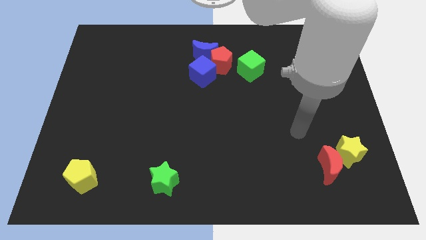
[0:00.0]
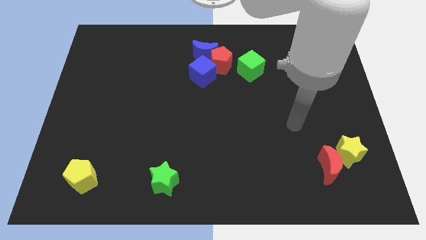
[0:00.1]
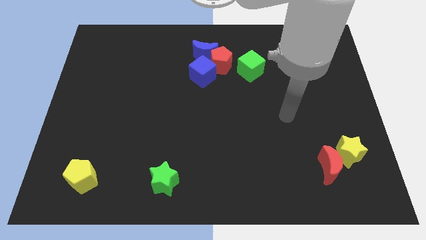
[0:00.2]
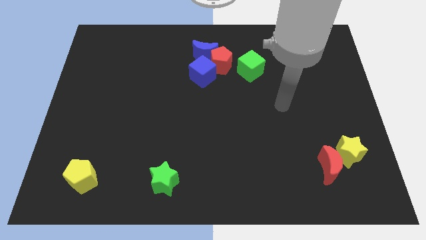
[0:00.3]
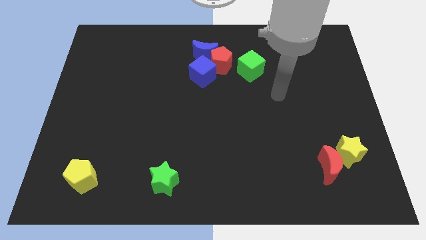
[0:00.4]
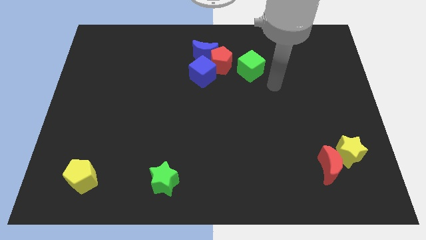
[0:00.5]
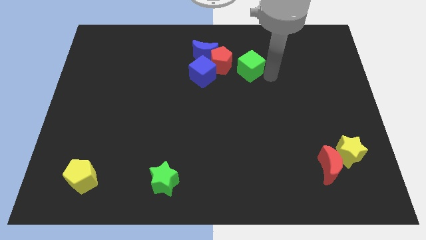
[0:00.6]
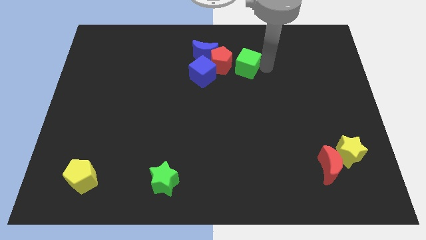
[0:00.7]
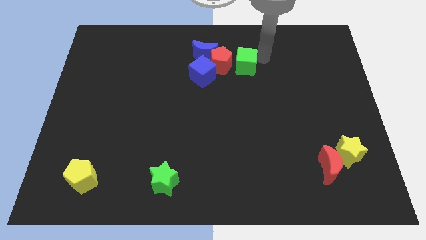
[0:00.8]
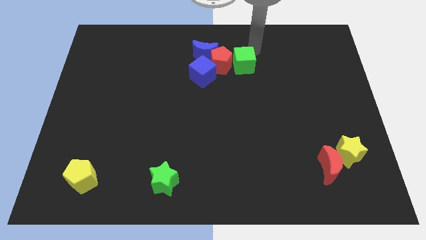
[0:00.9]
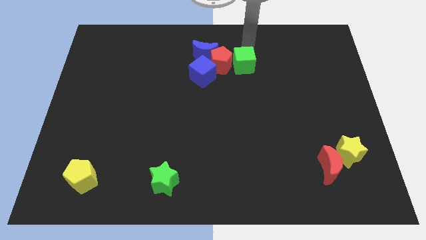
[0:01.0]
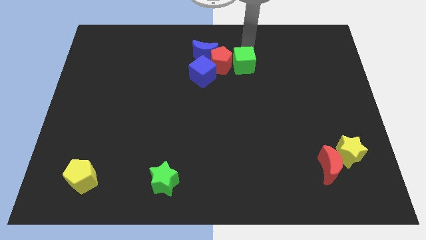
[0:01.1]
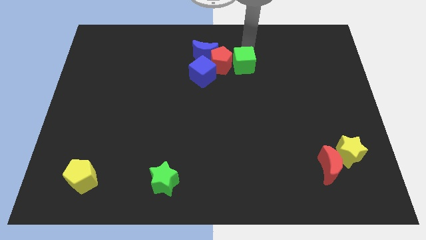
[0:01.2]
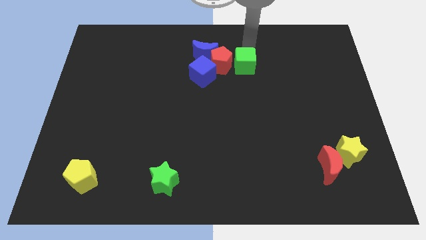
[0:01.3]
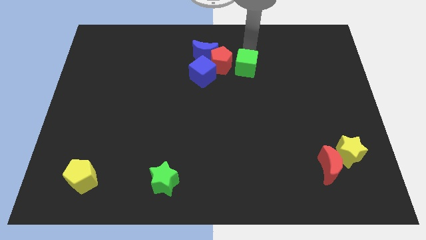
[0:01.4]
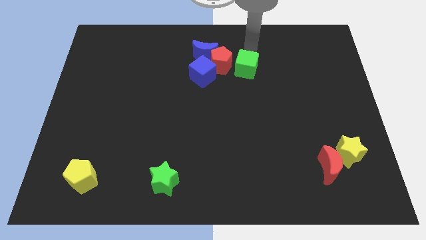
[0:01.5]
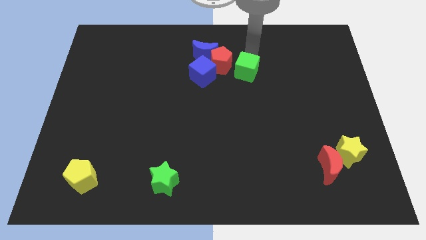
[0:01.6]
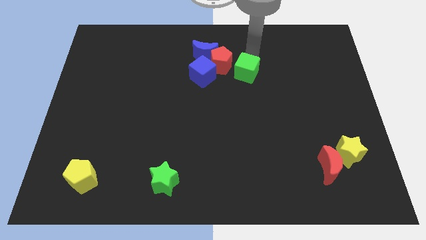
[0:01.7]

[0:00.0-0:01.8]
move the green cube to the middle of the board

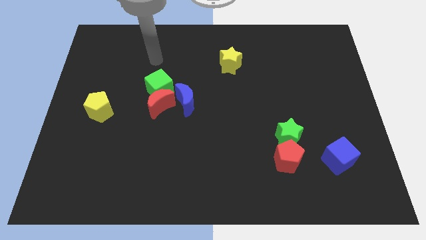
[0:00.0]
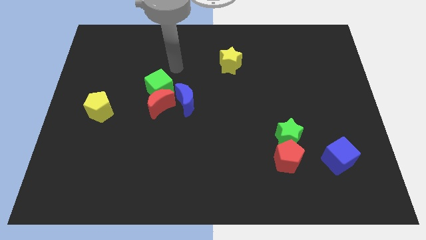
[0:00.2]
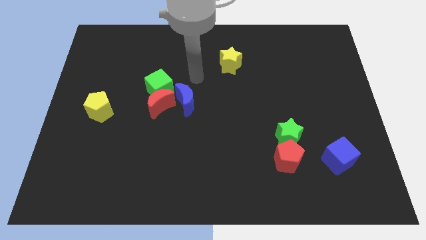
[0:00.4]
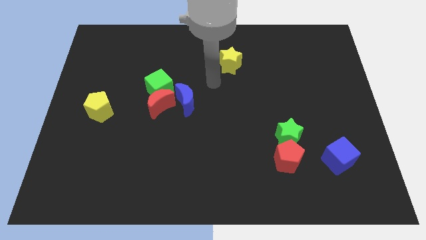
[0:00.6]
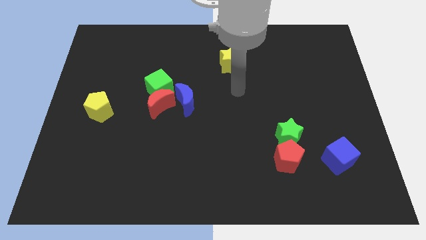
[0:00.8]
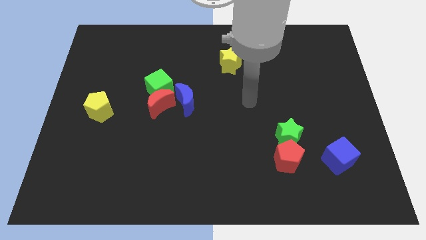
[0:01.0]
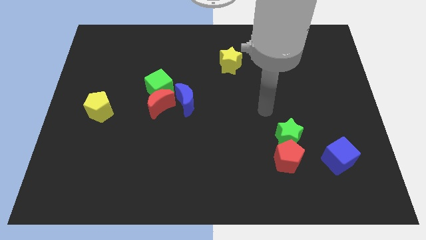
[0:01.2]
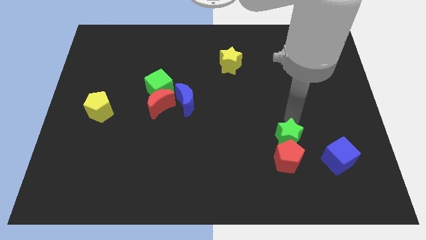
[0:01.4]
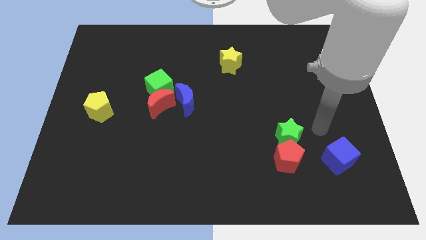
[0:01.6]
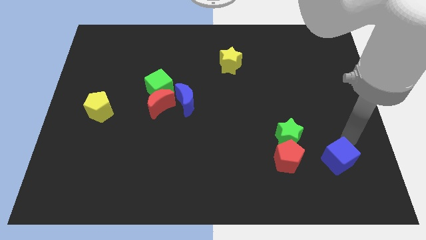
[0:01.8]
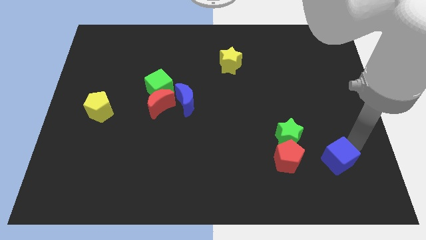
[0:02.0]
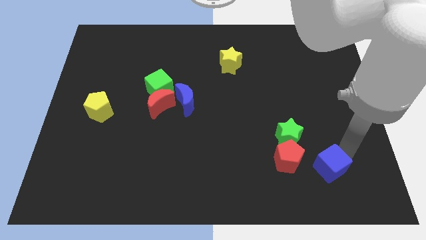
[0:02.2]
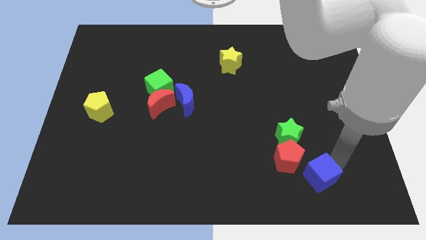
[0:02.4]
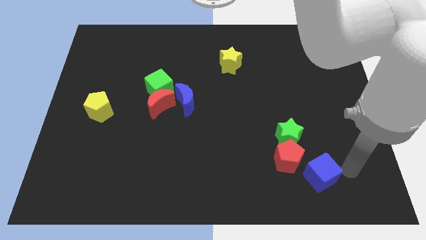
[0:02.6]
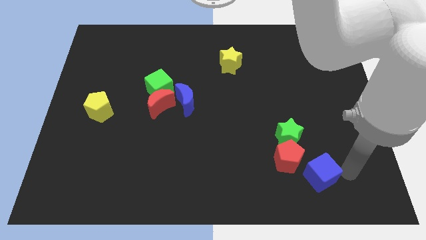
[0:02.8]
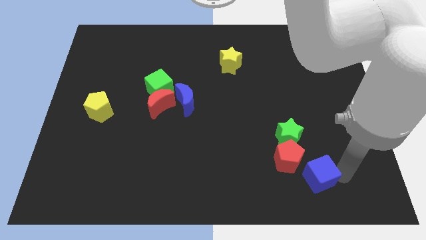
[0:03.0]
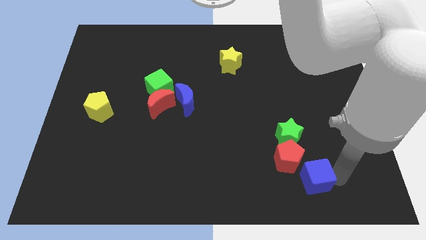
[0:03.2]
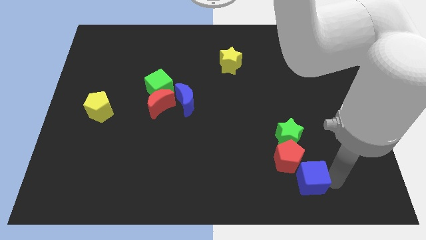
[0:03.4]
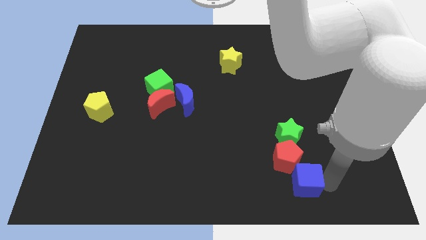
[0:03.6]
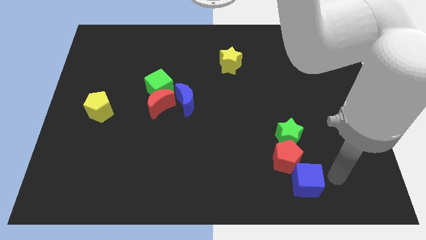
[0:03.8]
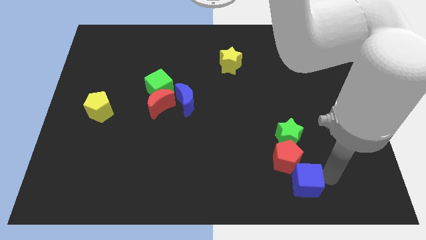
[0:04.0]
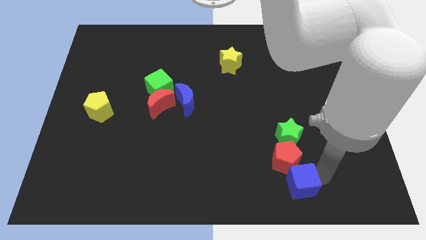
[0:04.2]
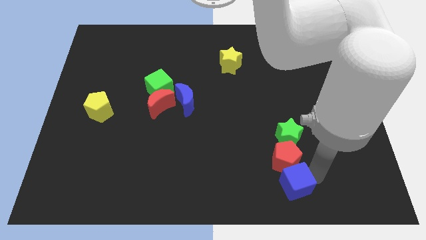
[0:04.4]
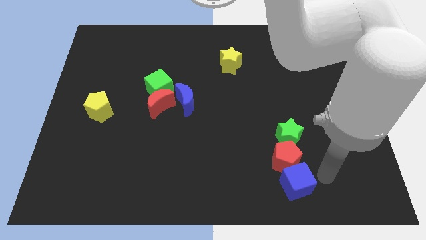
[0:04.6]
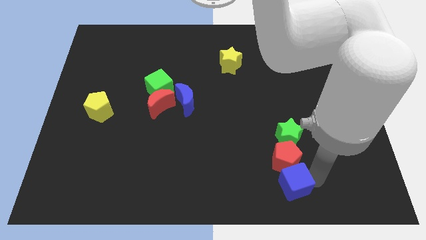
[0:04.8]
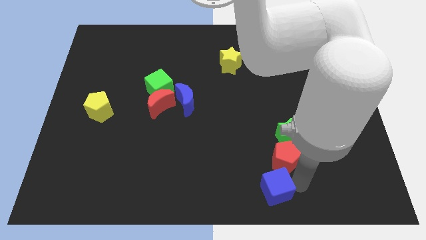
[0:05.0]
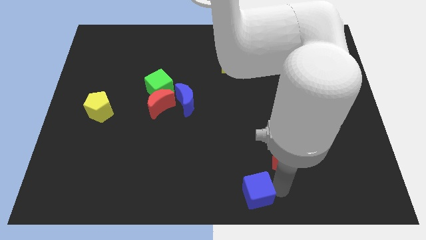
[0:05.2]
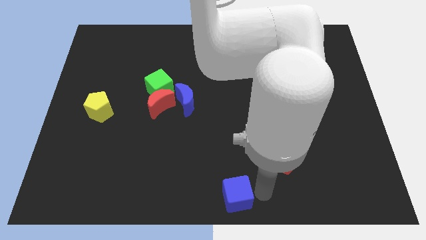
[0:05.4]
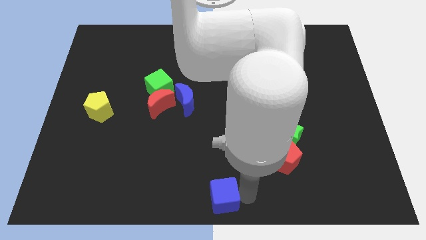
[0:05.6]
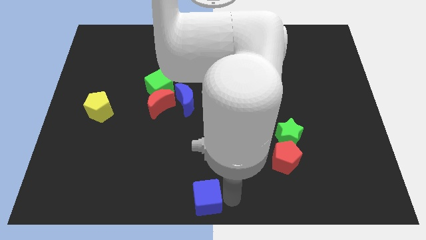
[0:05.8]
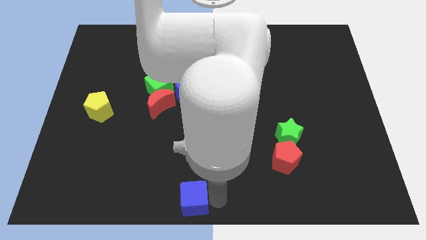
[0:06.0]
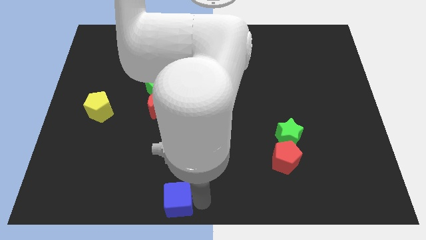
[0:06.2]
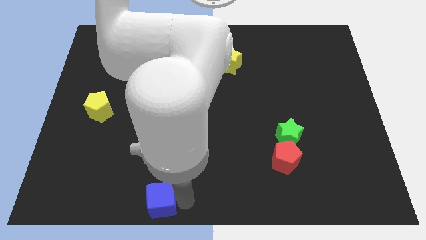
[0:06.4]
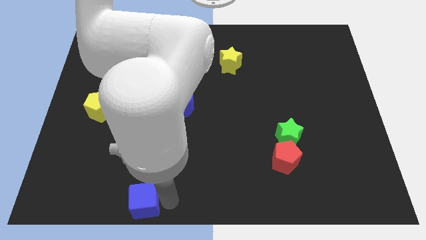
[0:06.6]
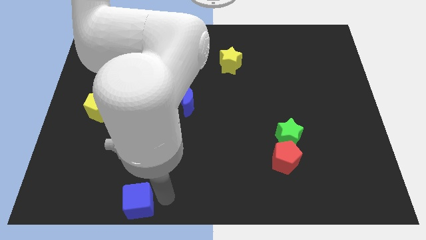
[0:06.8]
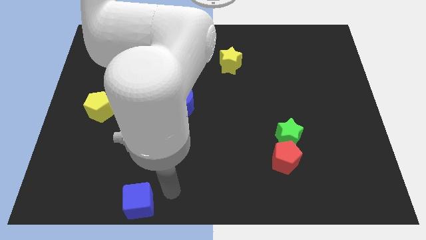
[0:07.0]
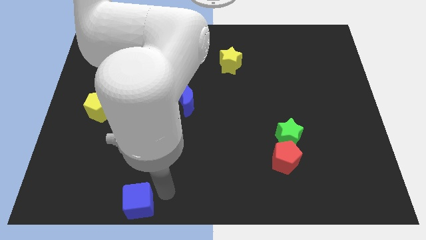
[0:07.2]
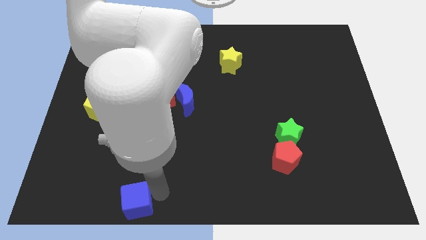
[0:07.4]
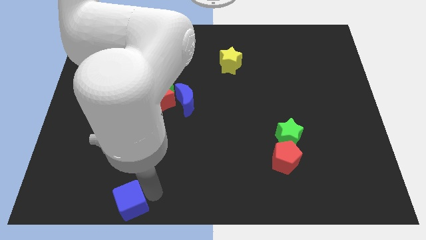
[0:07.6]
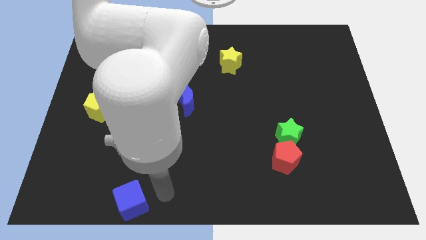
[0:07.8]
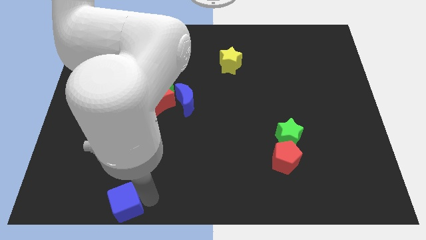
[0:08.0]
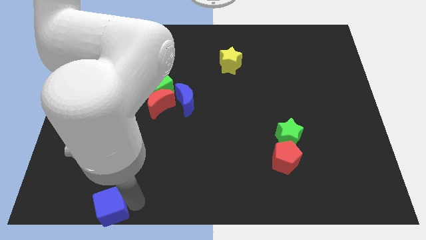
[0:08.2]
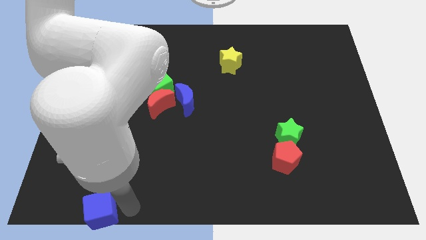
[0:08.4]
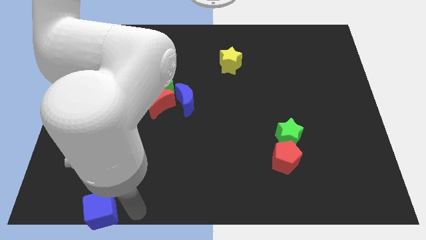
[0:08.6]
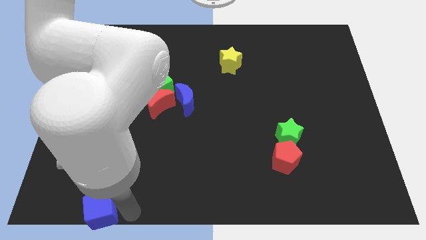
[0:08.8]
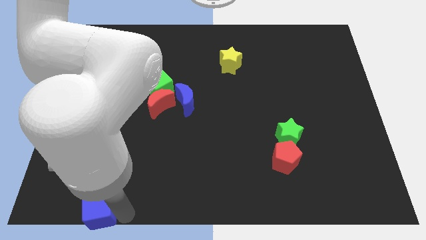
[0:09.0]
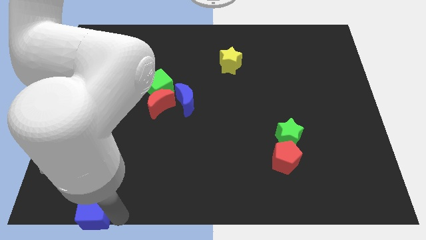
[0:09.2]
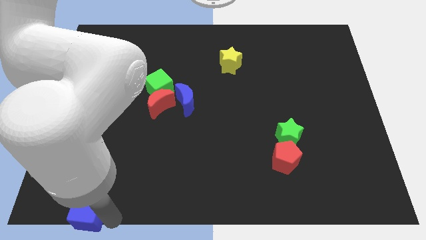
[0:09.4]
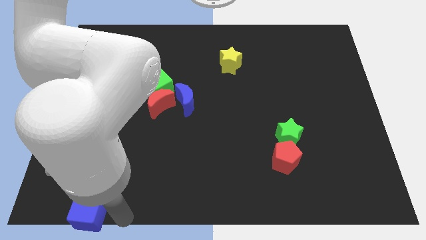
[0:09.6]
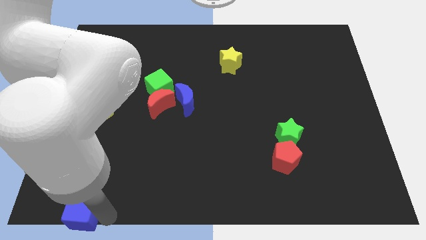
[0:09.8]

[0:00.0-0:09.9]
push the blue cube to the bottom left of the board

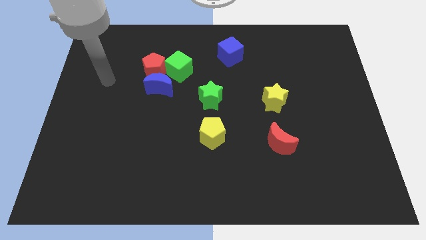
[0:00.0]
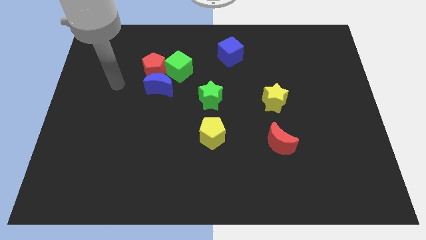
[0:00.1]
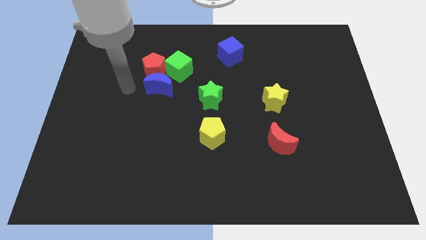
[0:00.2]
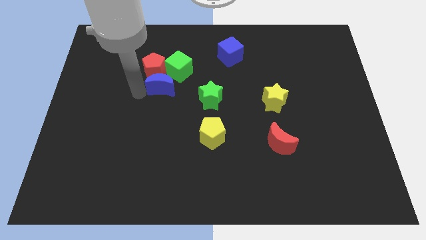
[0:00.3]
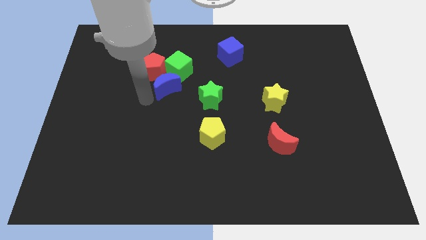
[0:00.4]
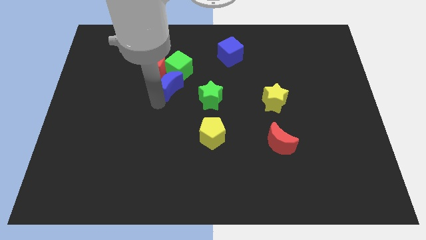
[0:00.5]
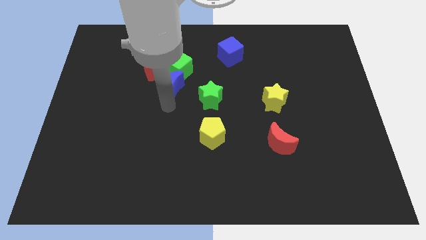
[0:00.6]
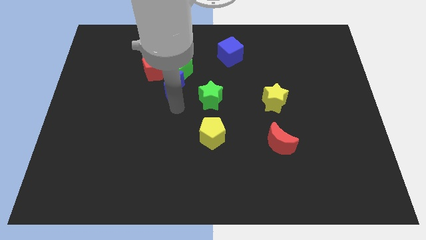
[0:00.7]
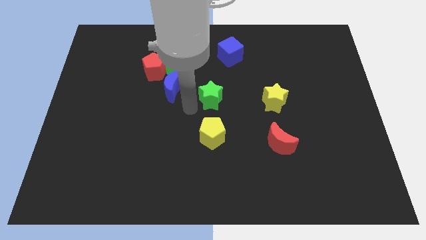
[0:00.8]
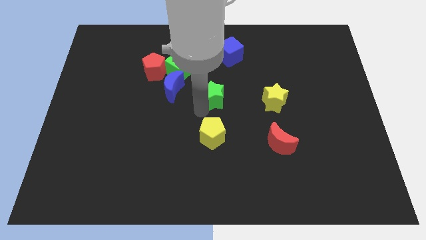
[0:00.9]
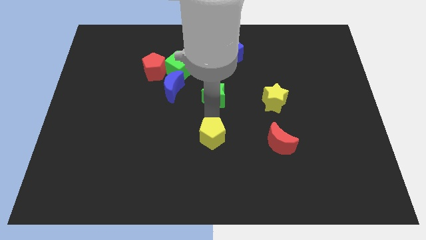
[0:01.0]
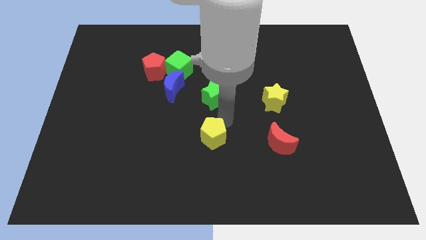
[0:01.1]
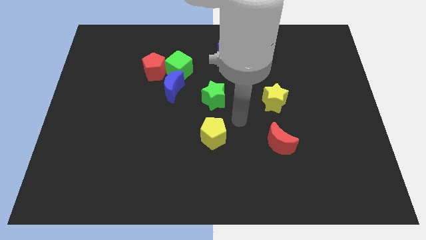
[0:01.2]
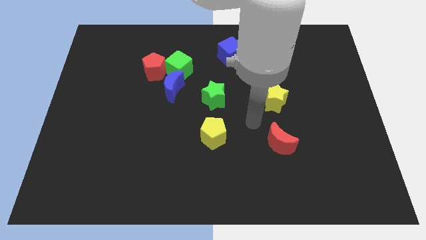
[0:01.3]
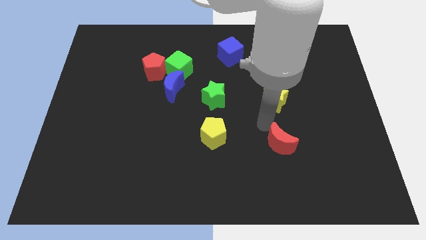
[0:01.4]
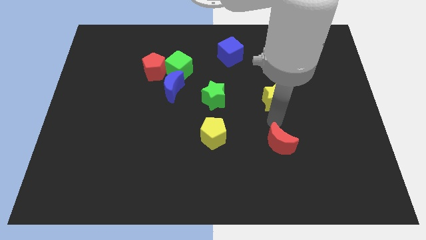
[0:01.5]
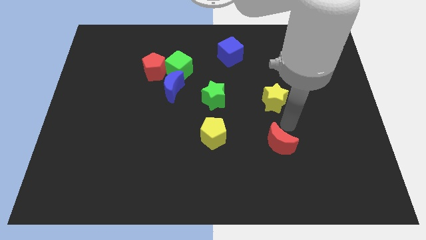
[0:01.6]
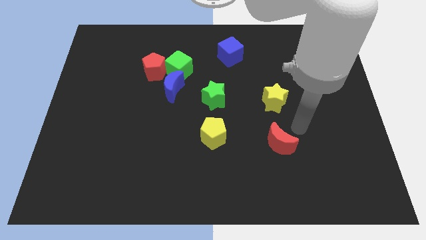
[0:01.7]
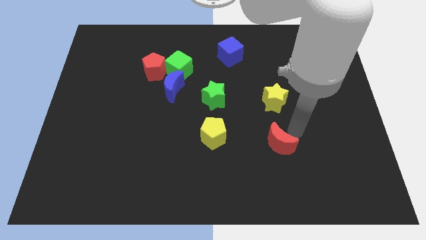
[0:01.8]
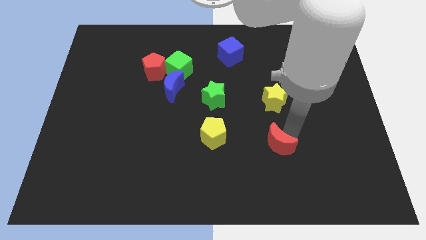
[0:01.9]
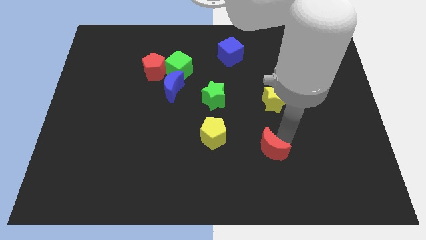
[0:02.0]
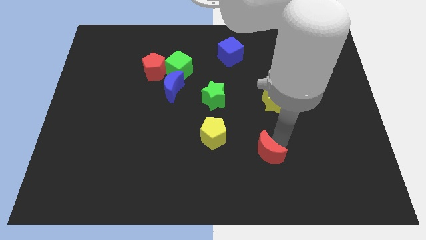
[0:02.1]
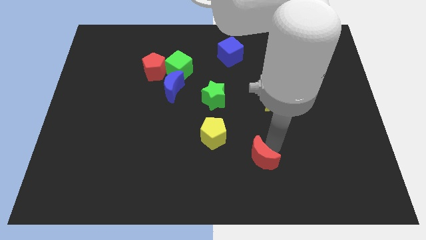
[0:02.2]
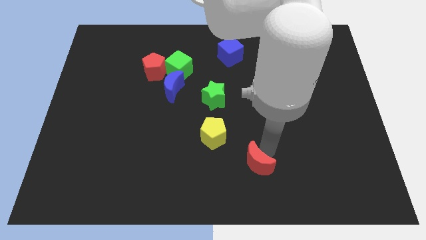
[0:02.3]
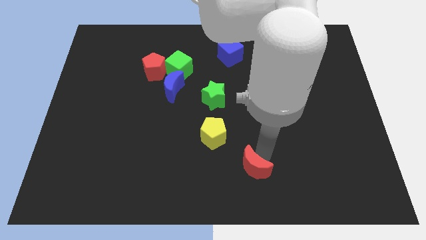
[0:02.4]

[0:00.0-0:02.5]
put the red moon to the bottom
